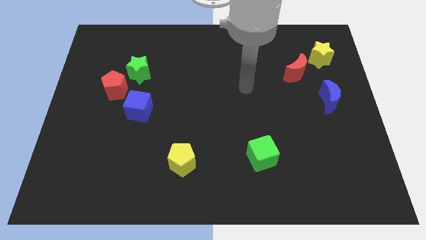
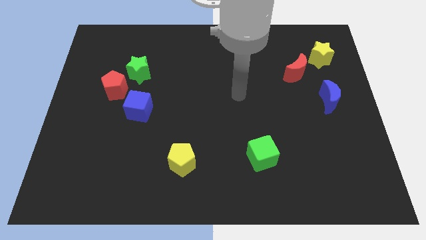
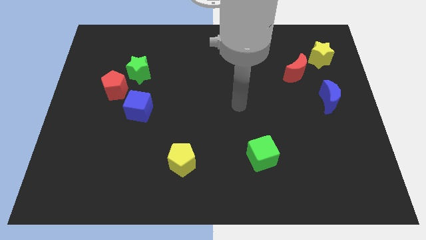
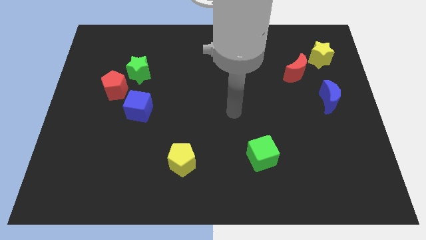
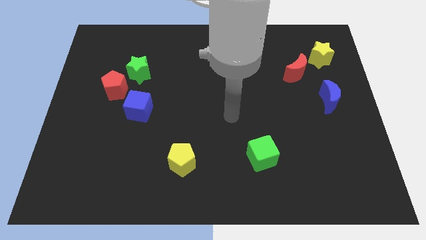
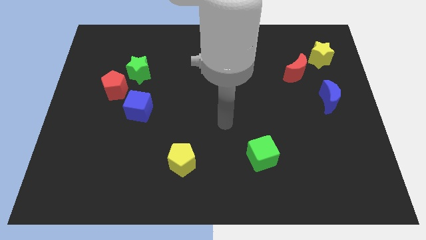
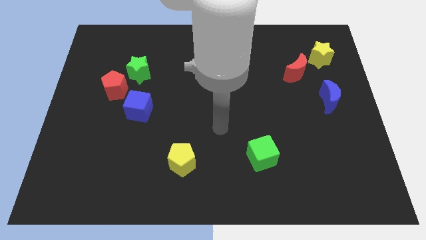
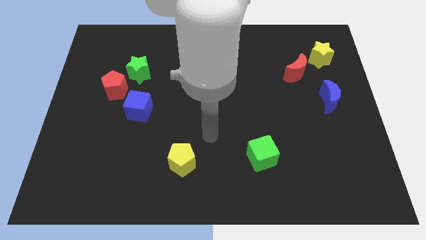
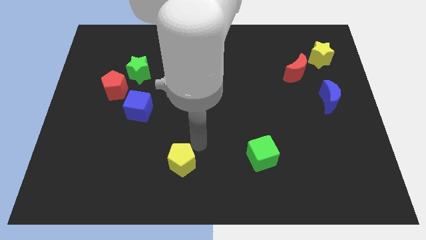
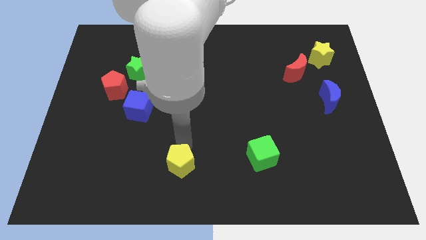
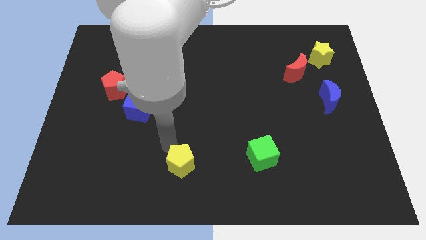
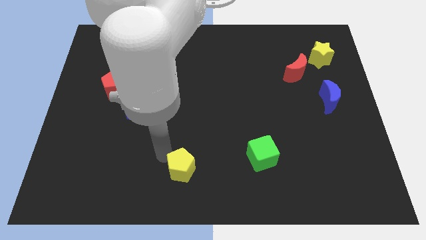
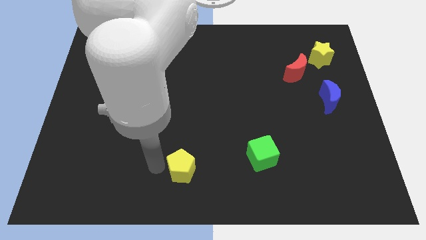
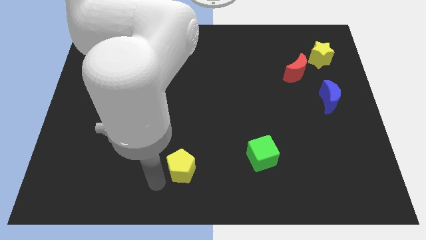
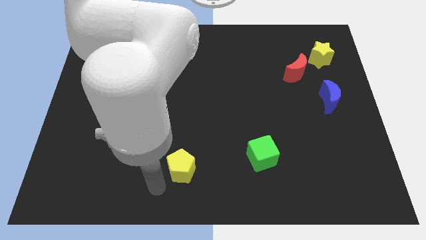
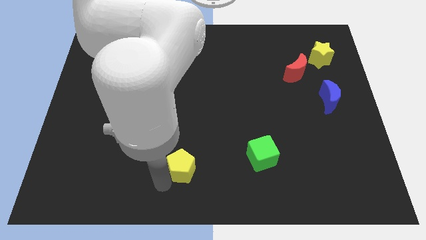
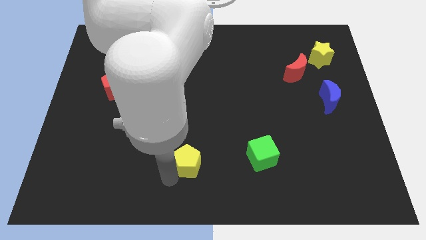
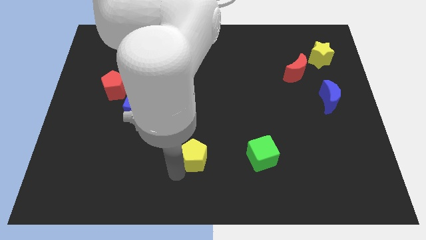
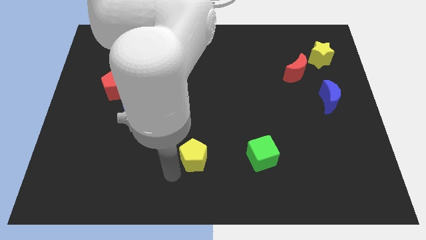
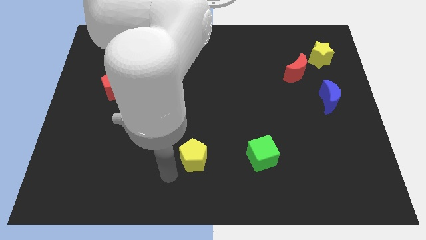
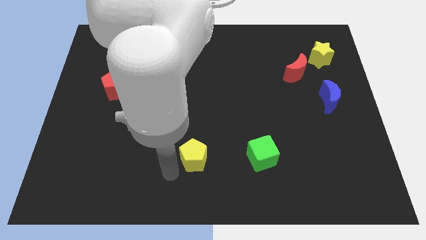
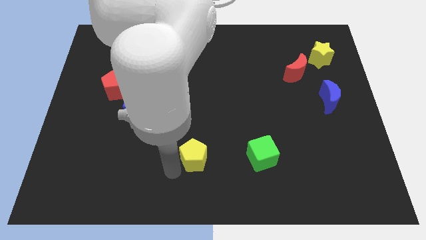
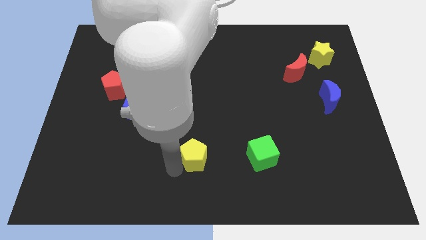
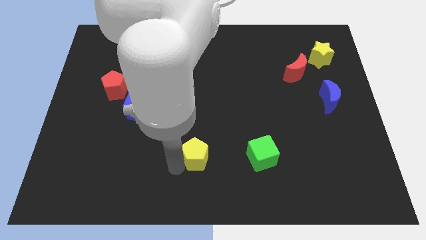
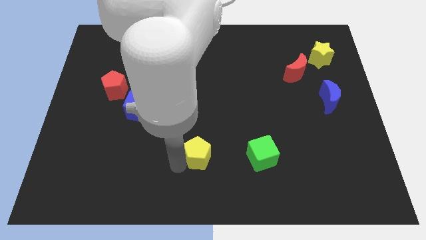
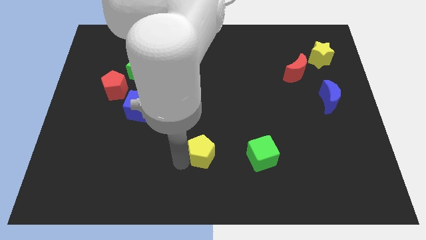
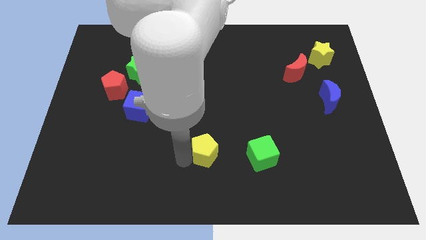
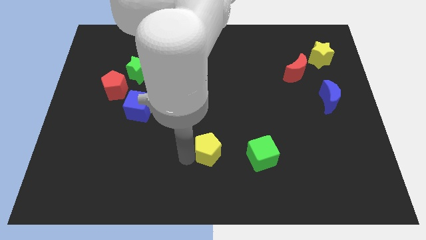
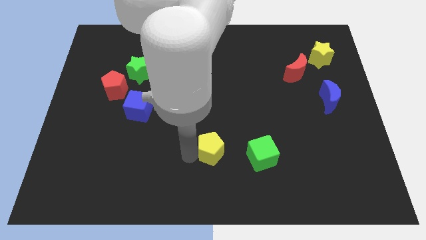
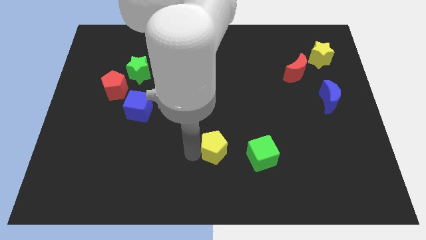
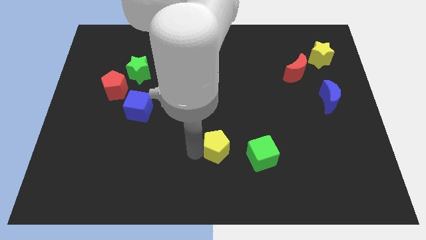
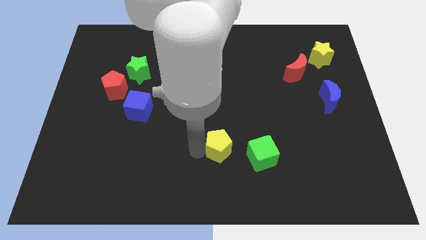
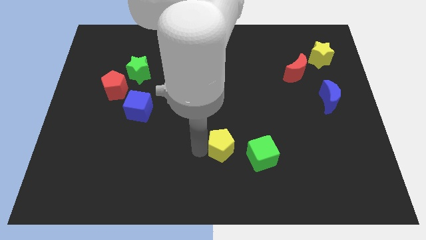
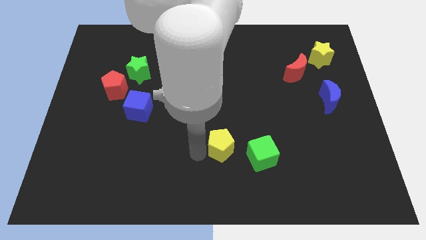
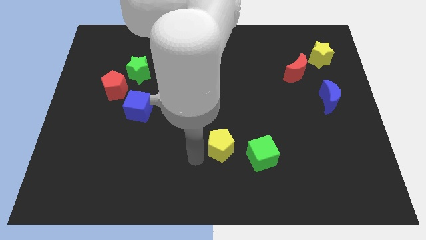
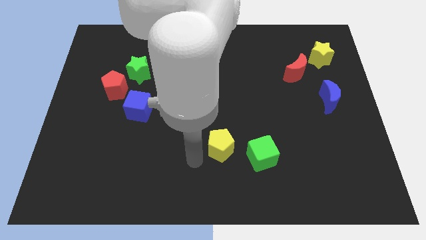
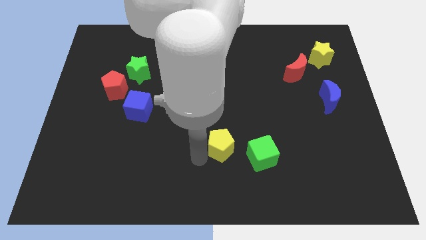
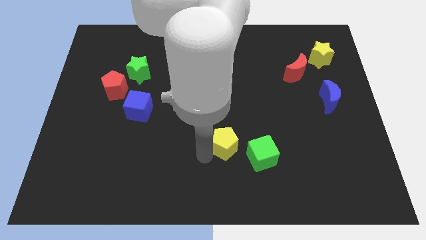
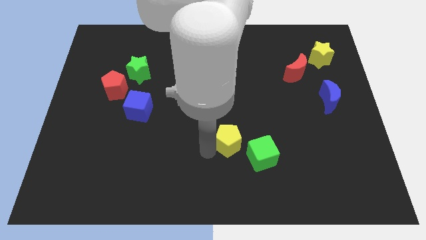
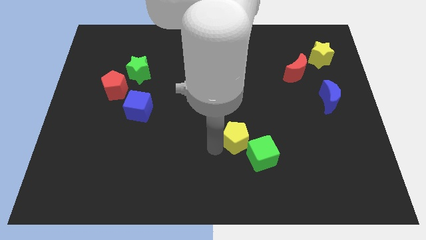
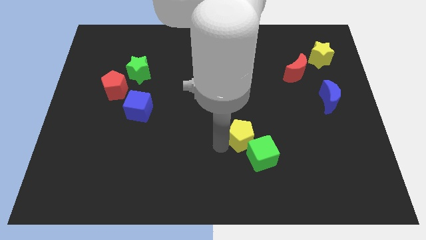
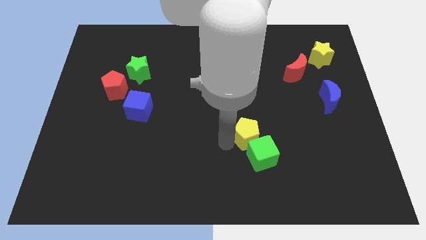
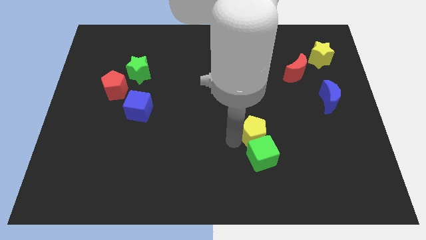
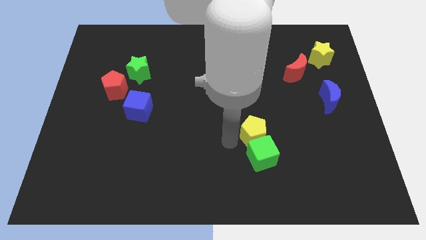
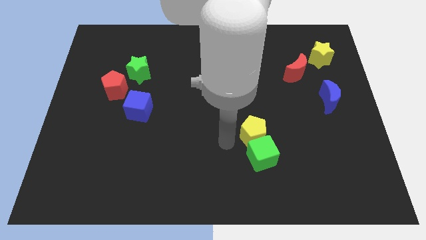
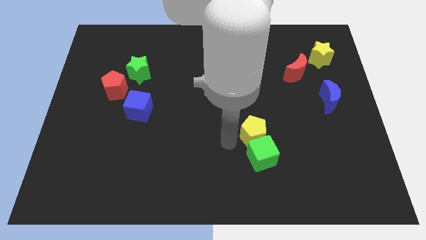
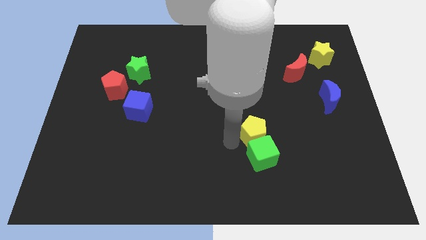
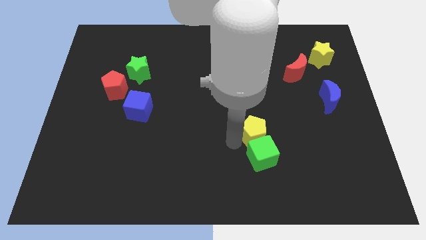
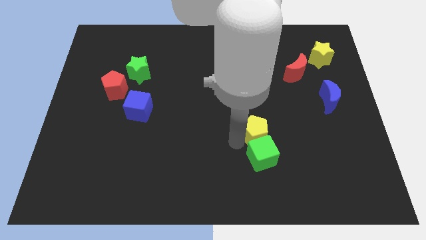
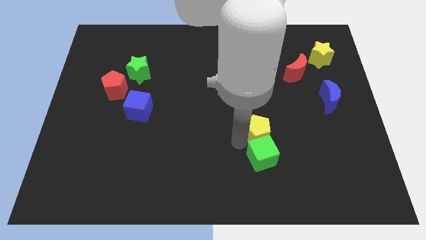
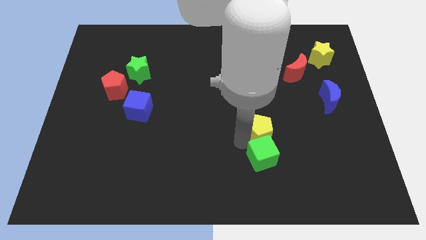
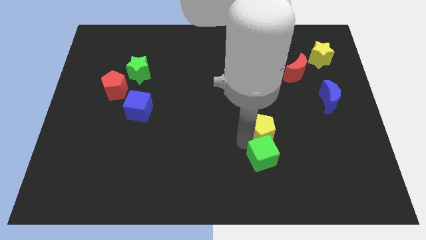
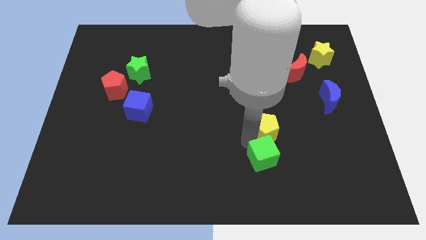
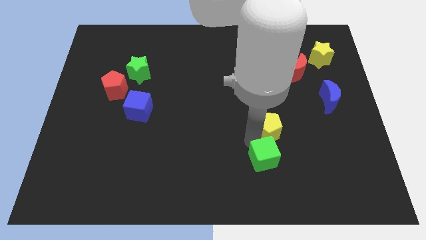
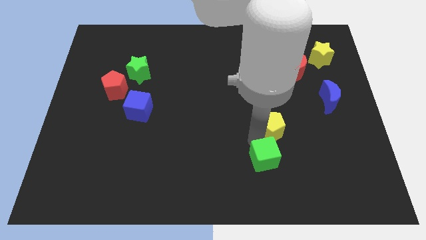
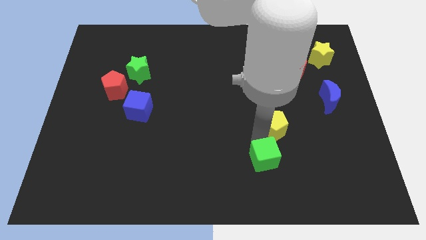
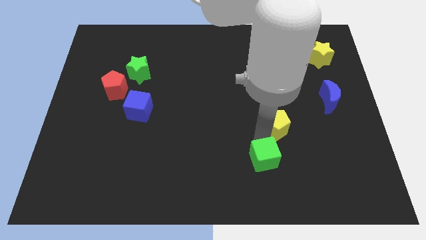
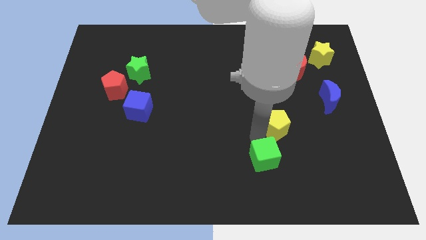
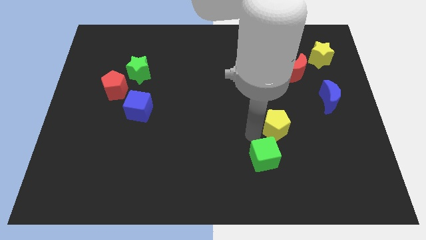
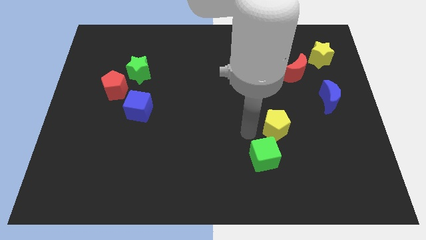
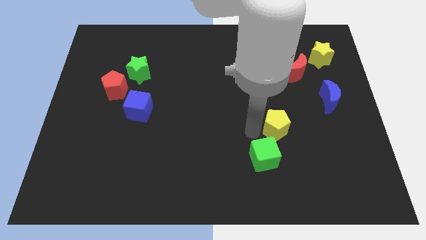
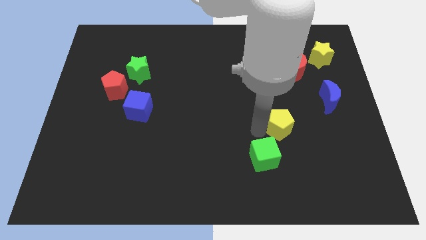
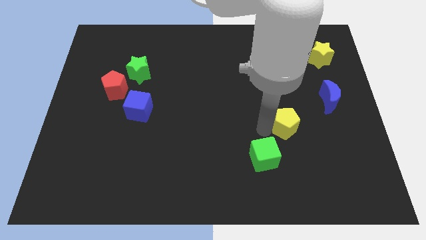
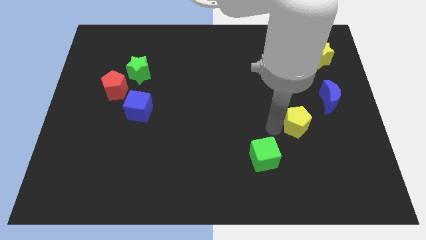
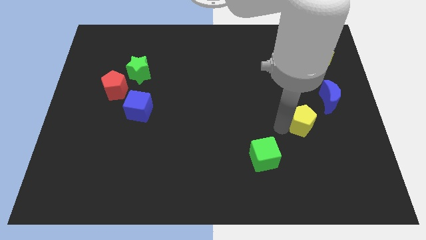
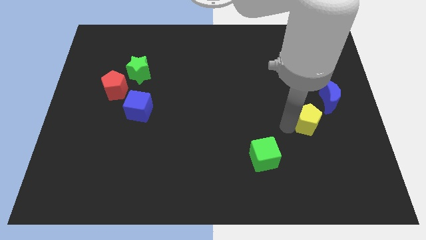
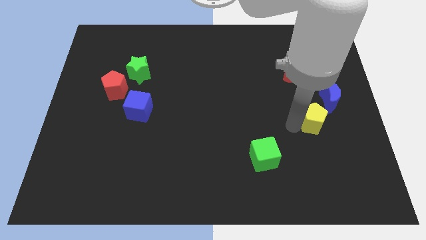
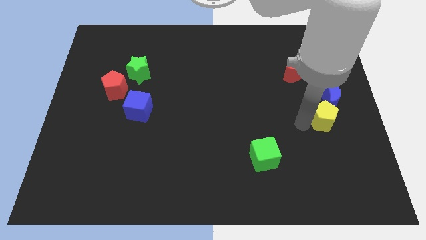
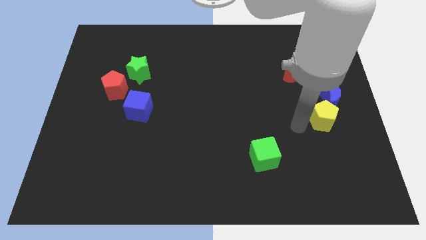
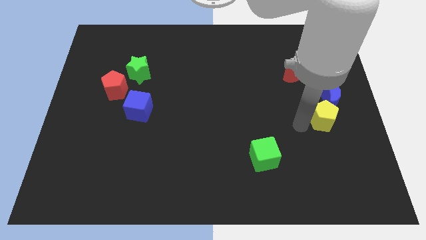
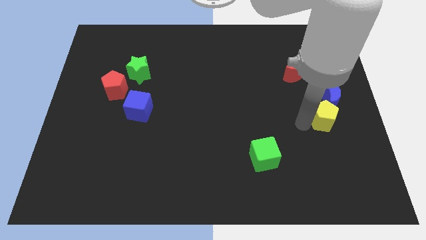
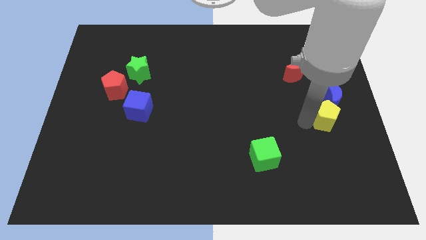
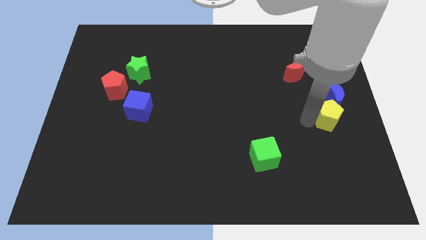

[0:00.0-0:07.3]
move the yellow pentagon to the right side
